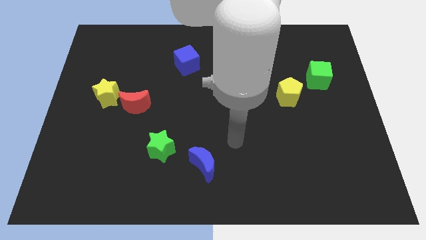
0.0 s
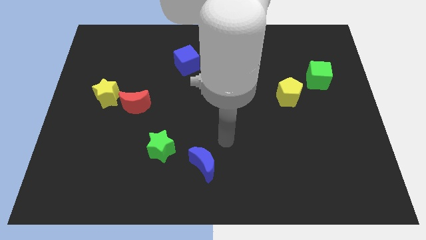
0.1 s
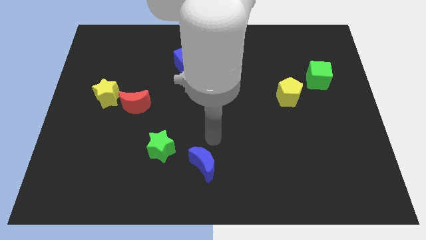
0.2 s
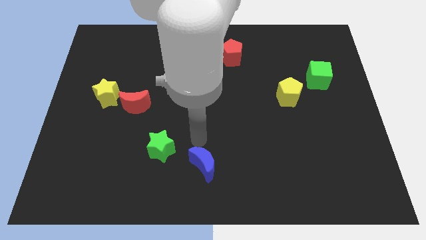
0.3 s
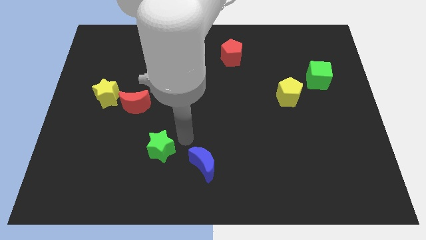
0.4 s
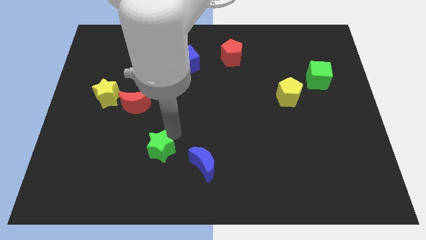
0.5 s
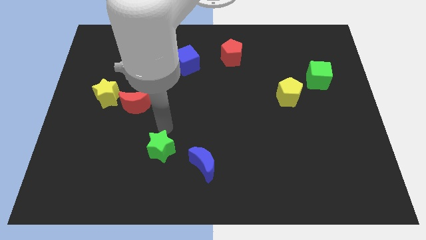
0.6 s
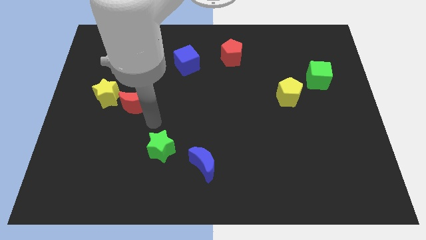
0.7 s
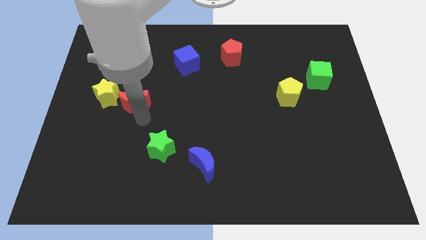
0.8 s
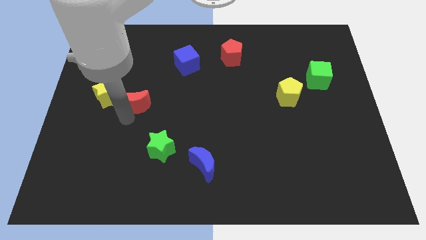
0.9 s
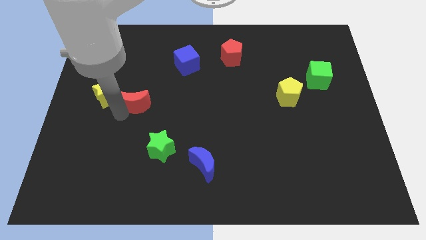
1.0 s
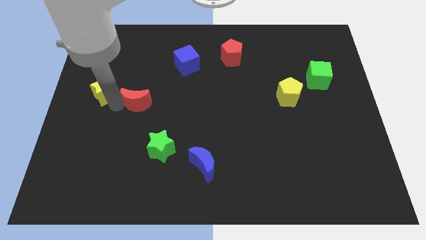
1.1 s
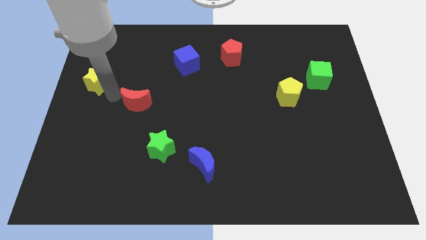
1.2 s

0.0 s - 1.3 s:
move the red moon away from the yellow star

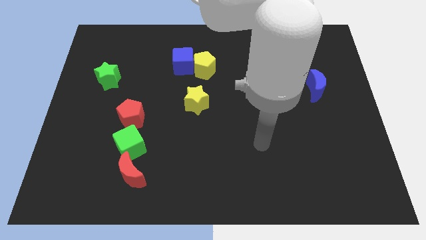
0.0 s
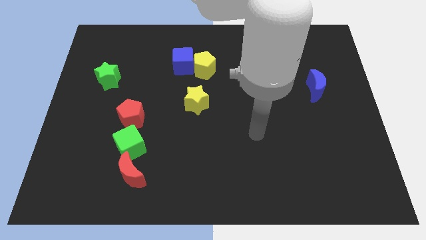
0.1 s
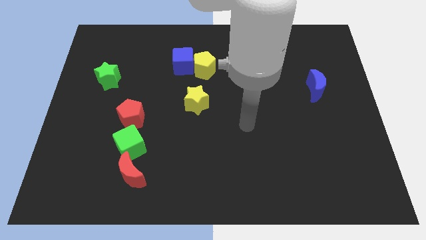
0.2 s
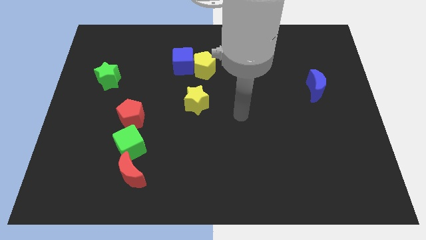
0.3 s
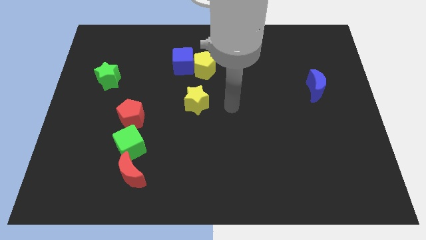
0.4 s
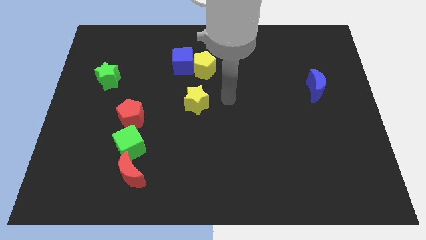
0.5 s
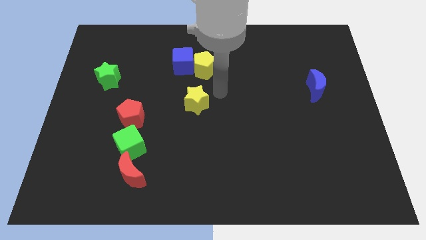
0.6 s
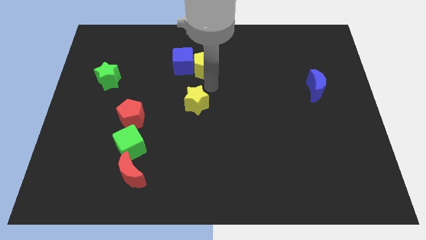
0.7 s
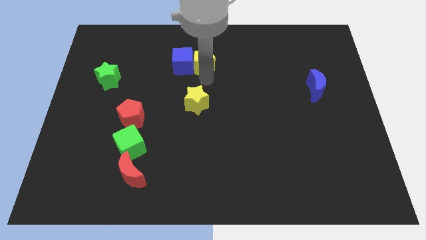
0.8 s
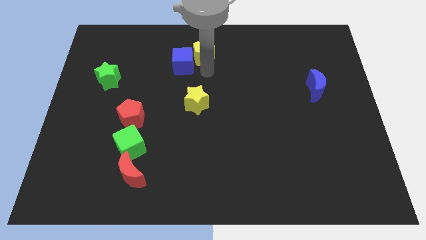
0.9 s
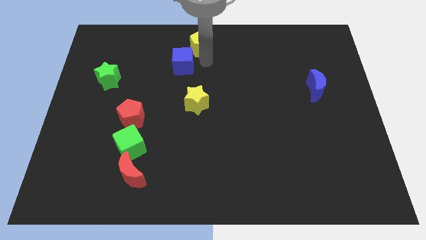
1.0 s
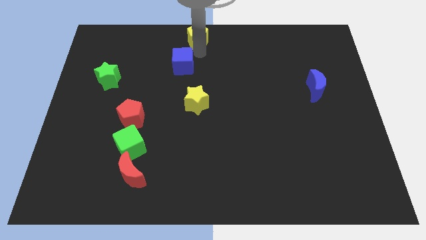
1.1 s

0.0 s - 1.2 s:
move the blue cube away from the yellow pentagon

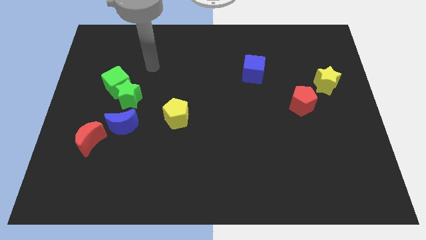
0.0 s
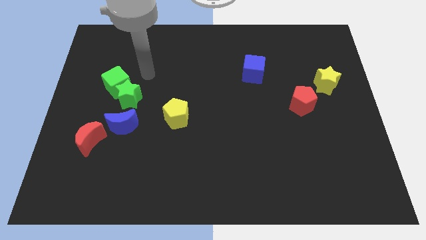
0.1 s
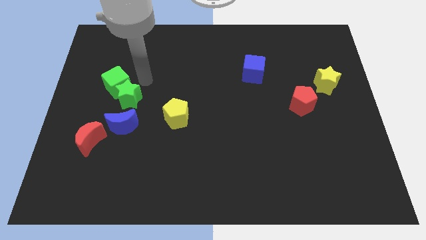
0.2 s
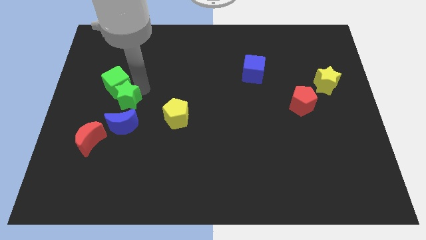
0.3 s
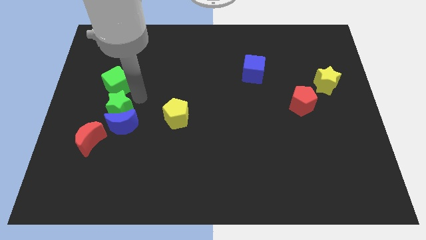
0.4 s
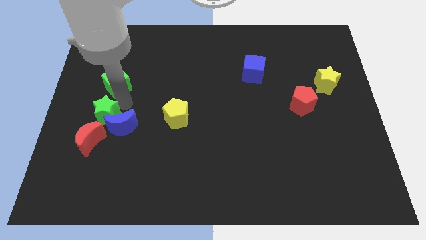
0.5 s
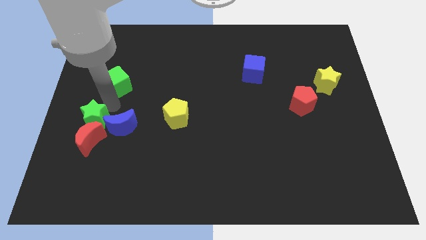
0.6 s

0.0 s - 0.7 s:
move the green cube away from the green star

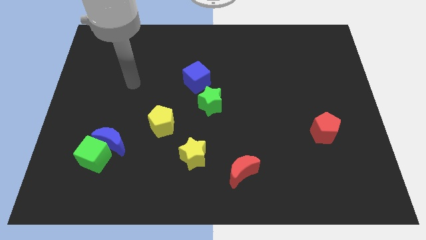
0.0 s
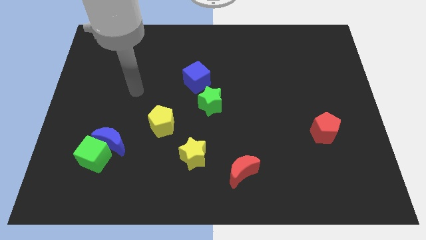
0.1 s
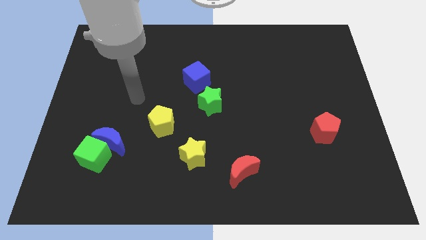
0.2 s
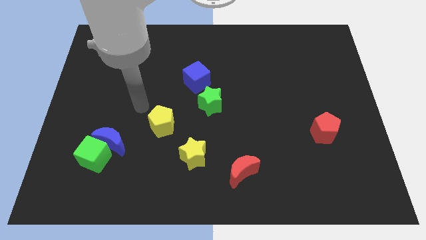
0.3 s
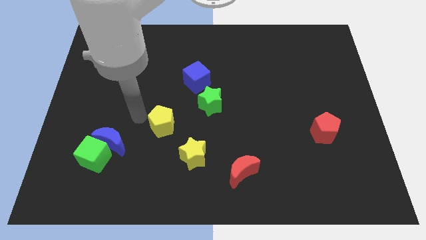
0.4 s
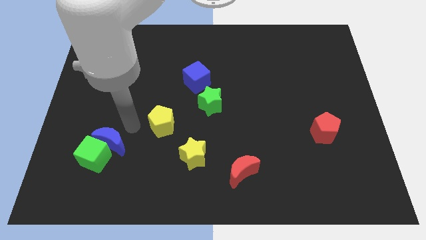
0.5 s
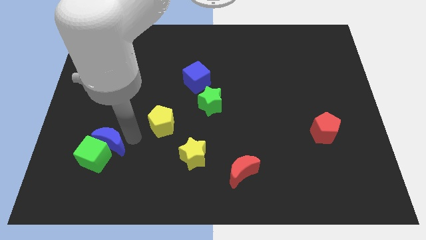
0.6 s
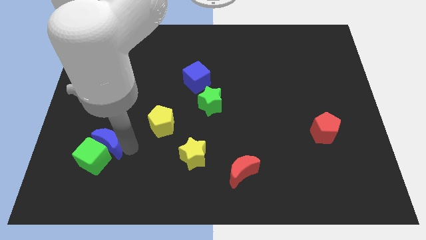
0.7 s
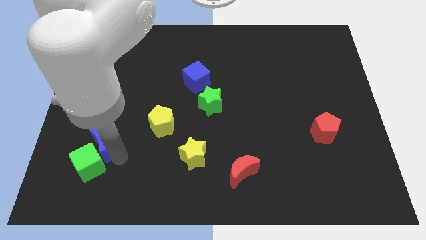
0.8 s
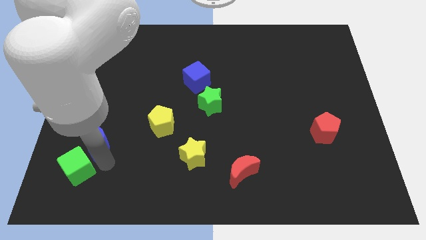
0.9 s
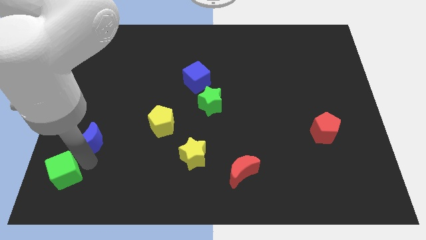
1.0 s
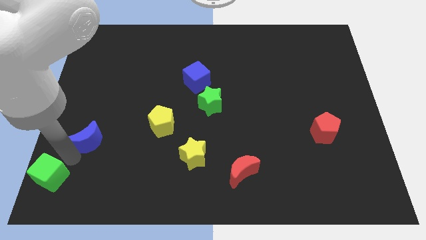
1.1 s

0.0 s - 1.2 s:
separate the blue moon from the green cube

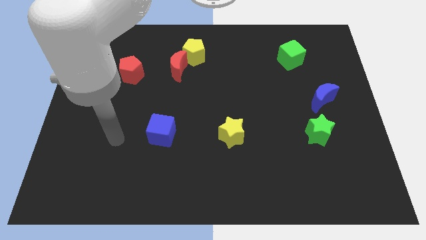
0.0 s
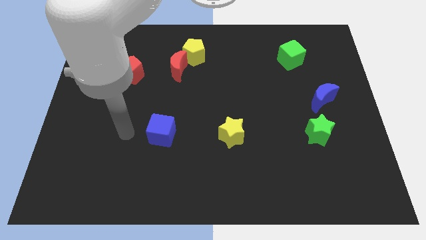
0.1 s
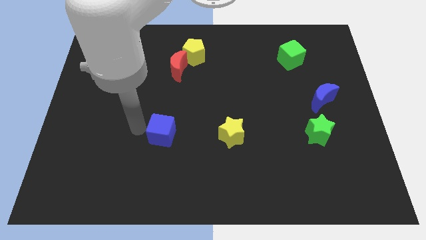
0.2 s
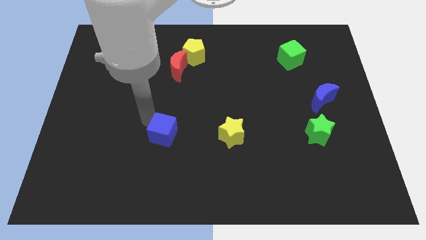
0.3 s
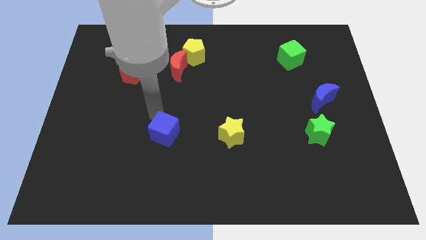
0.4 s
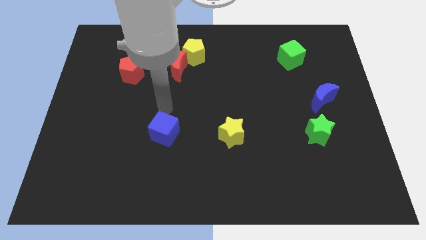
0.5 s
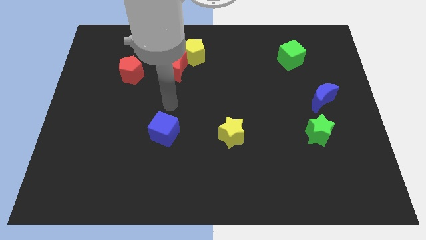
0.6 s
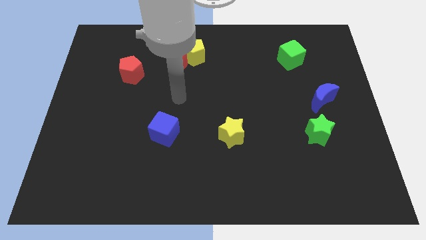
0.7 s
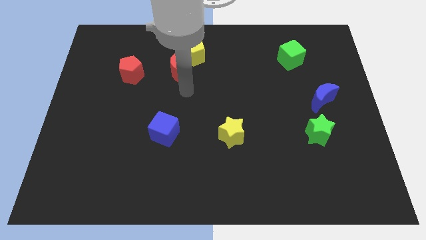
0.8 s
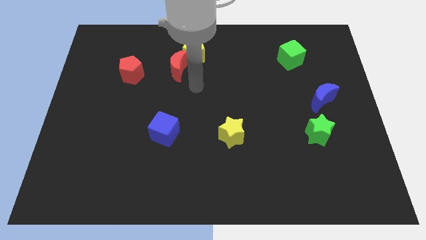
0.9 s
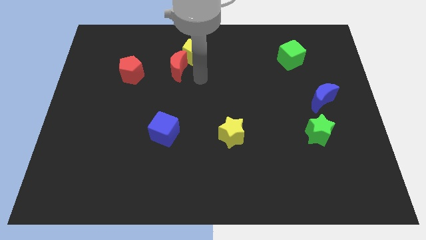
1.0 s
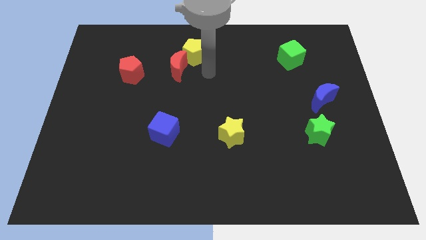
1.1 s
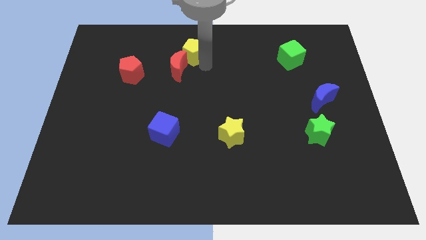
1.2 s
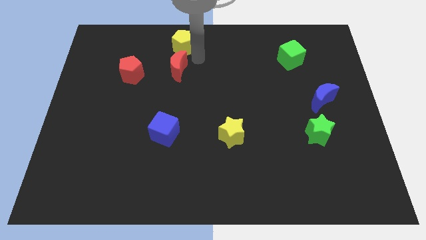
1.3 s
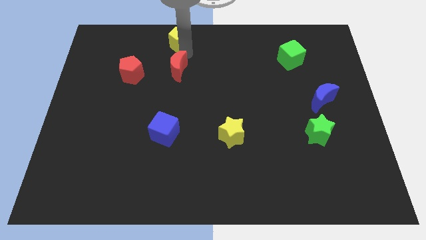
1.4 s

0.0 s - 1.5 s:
move the red moon away from the yellow pentagon

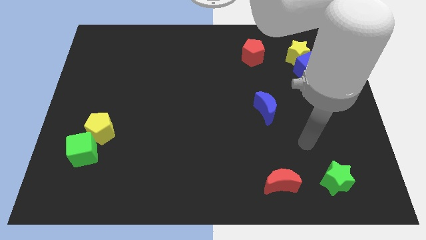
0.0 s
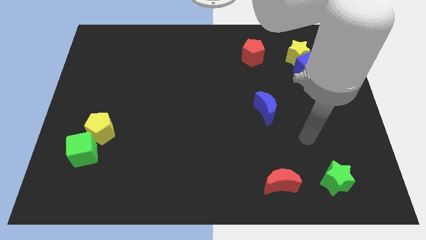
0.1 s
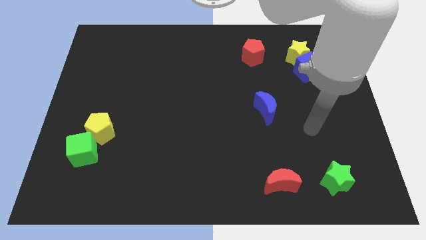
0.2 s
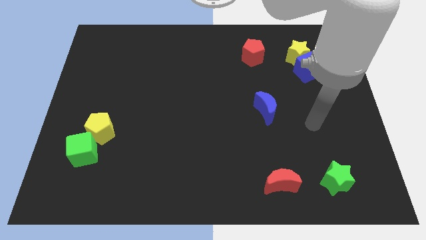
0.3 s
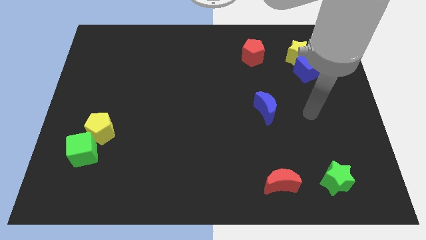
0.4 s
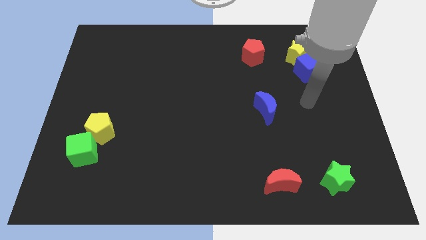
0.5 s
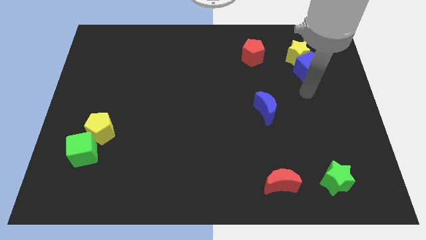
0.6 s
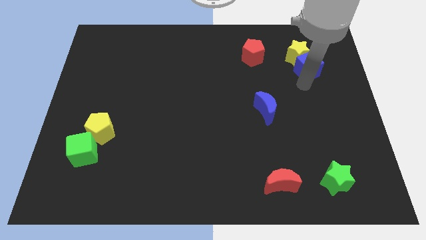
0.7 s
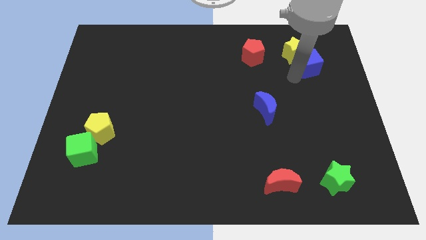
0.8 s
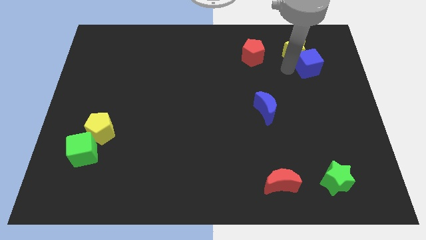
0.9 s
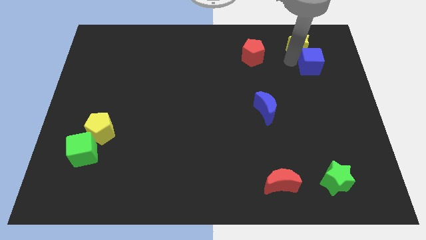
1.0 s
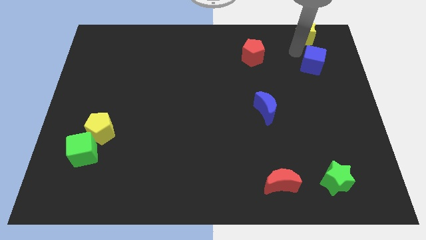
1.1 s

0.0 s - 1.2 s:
move the blue cube away from the yellow star

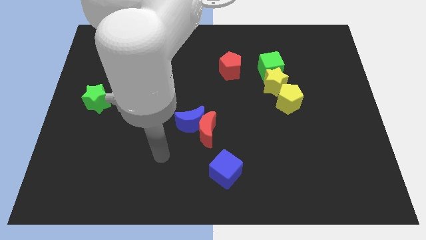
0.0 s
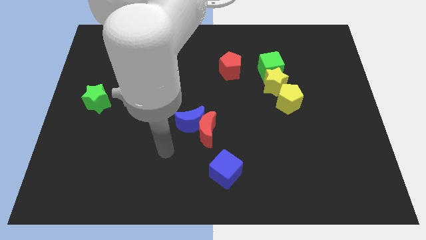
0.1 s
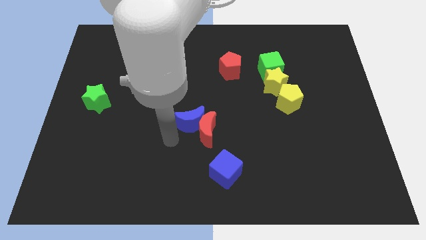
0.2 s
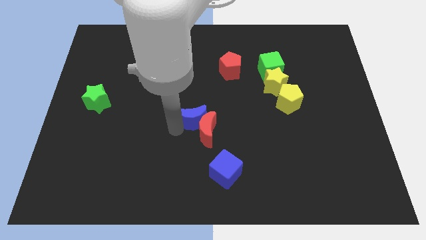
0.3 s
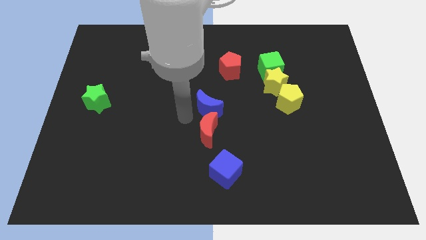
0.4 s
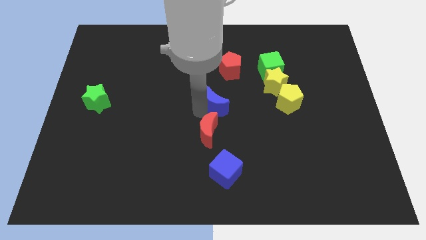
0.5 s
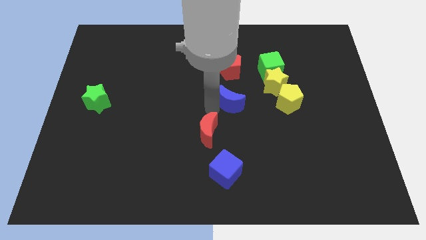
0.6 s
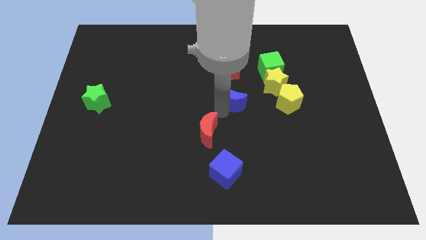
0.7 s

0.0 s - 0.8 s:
move the red moon away from the blue moon

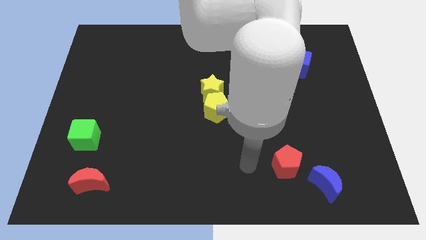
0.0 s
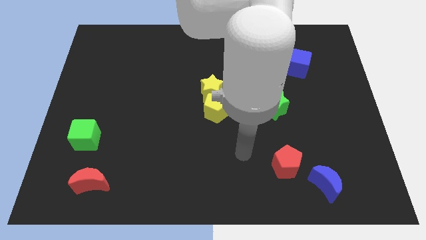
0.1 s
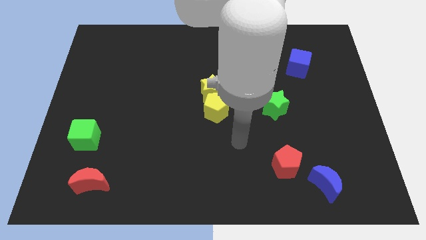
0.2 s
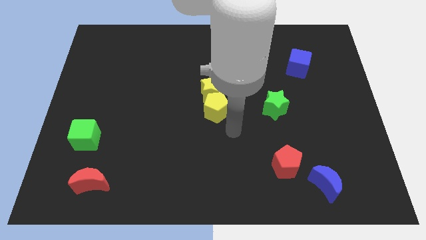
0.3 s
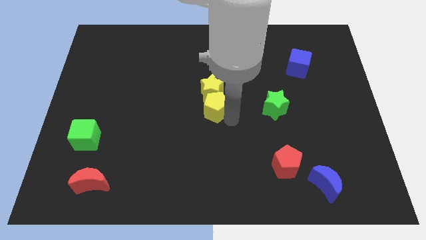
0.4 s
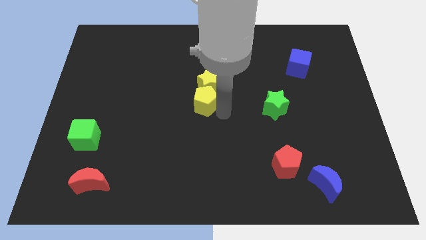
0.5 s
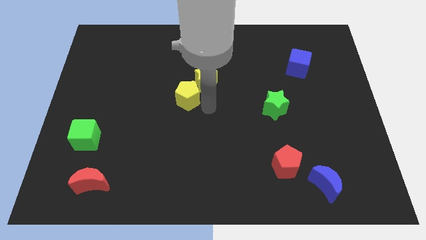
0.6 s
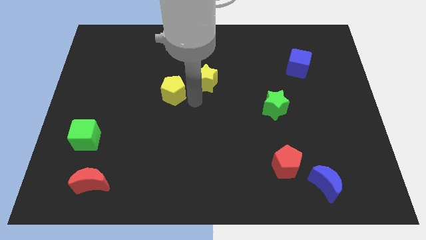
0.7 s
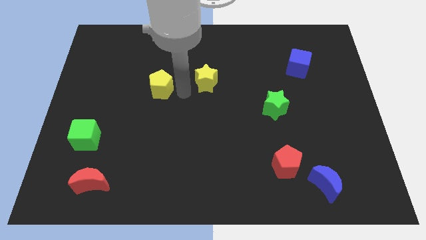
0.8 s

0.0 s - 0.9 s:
move the yellow star away from the yellow pentagon

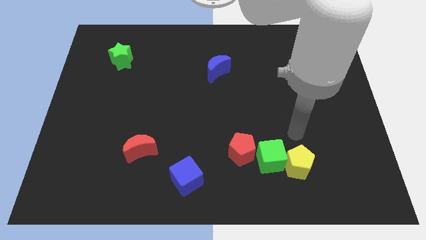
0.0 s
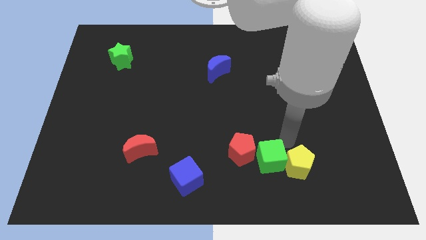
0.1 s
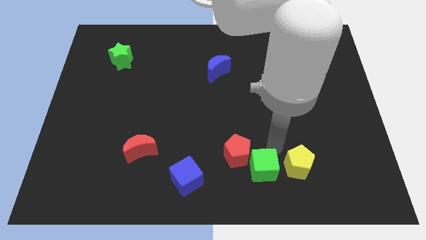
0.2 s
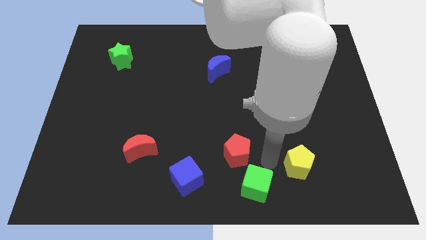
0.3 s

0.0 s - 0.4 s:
move the yellow pentagon away from the green cube
